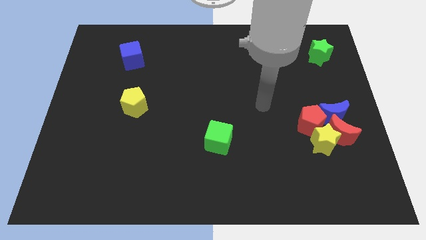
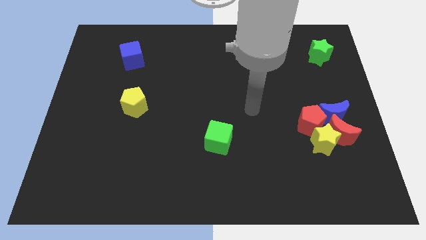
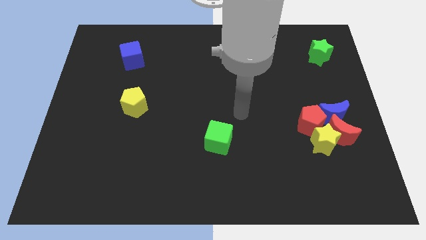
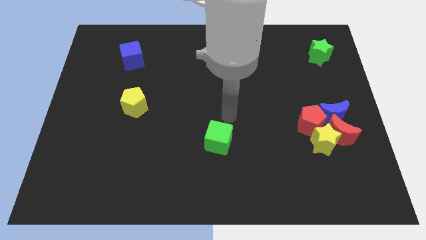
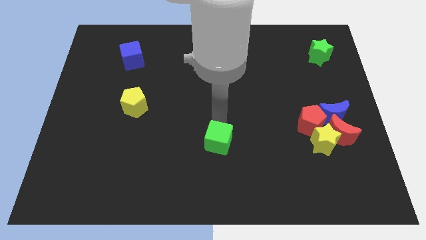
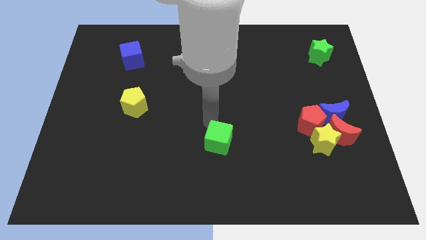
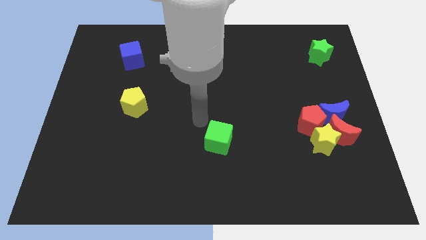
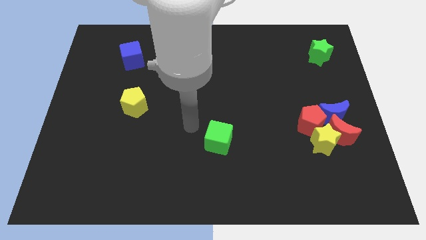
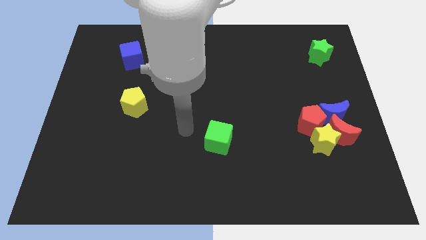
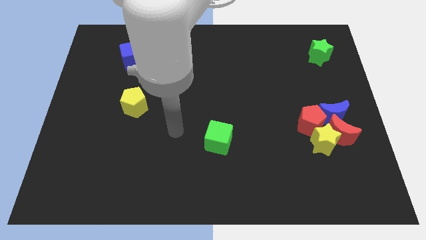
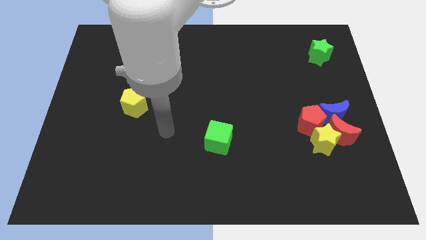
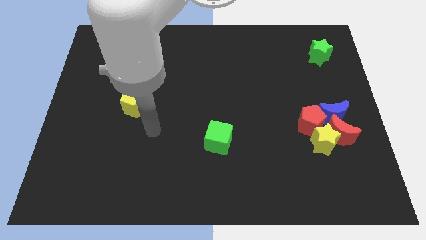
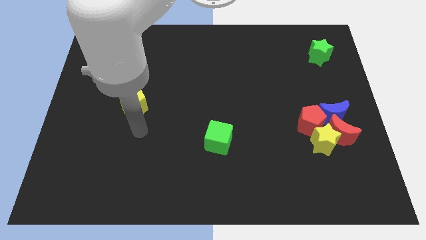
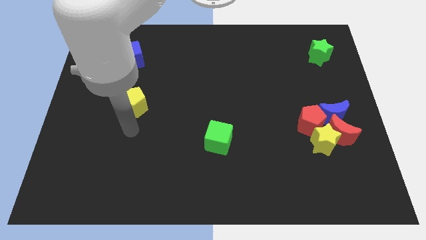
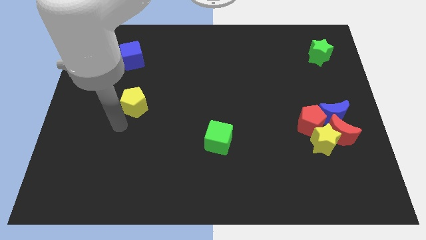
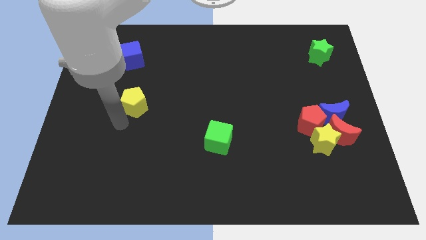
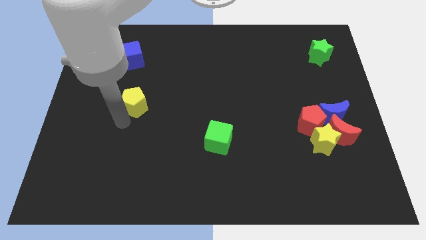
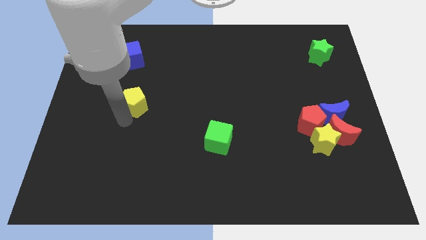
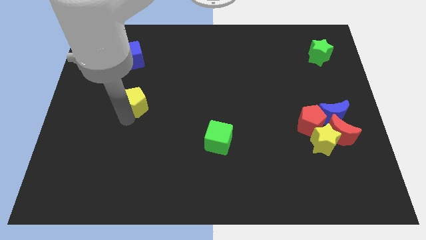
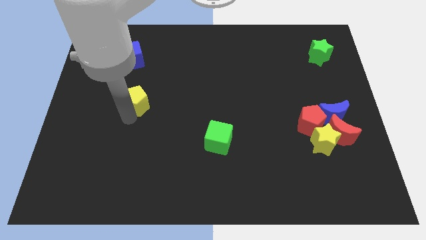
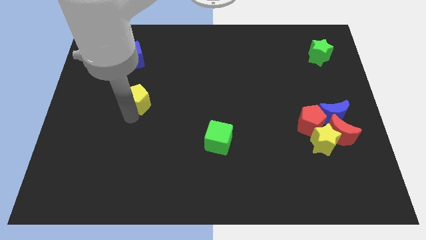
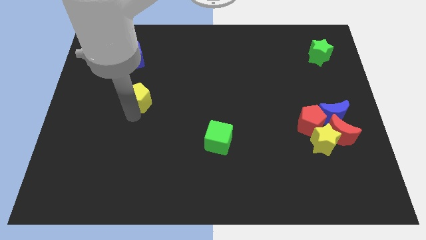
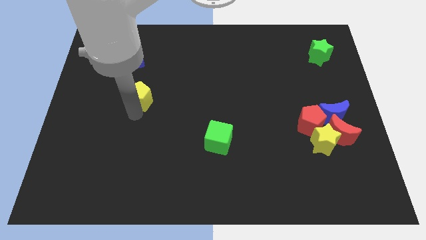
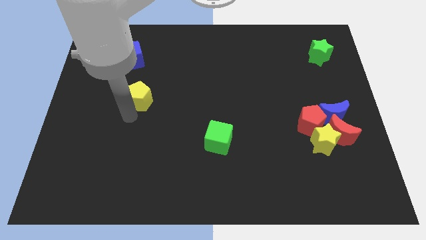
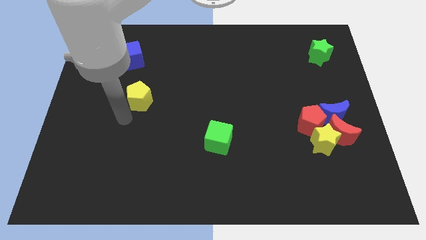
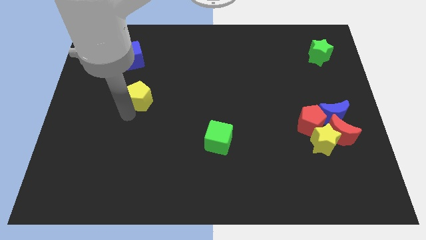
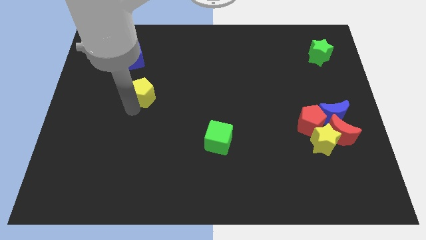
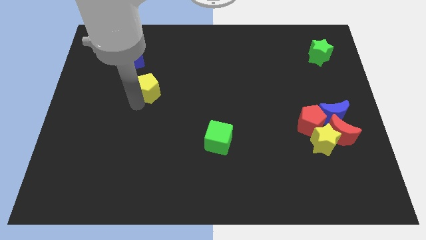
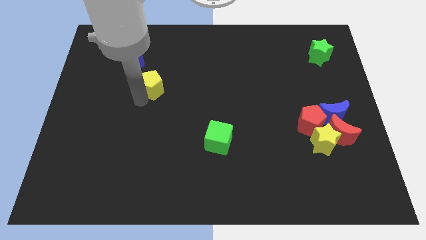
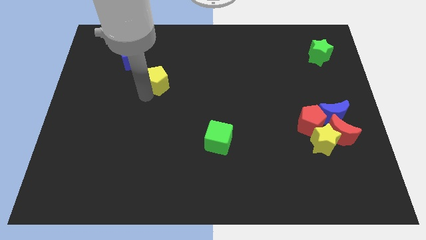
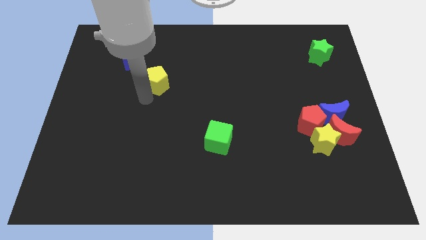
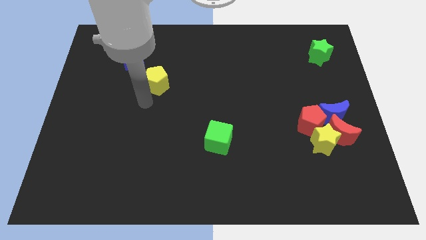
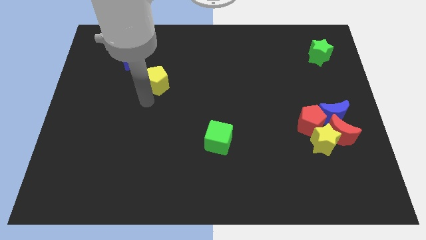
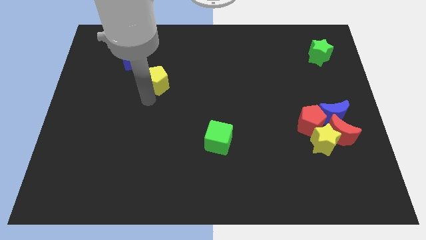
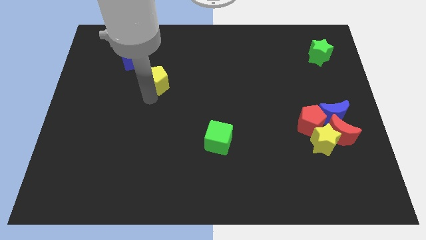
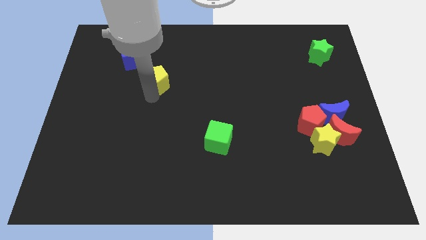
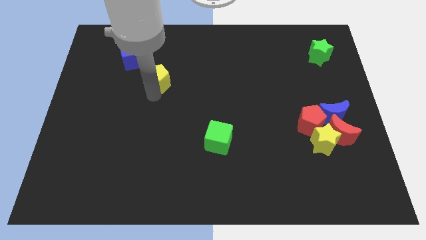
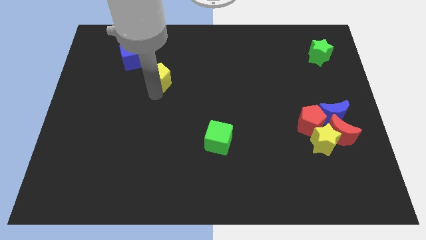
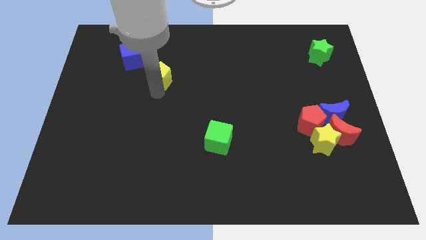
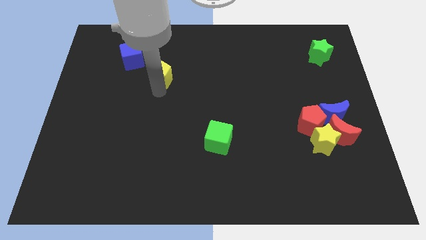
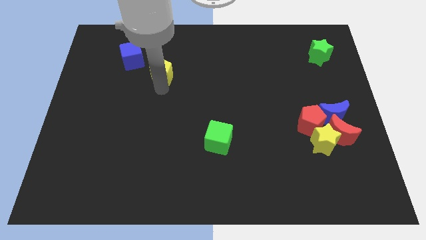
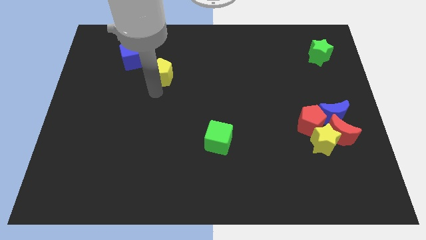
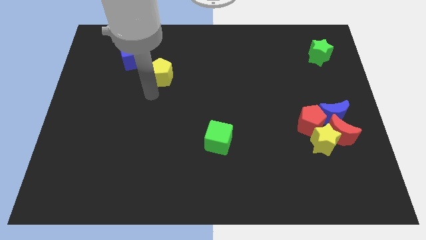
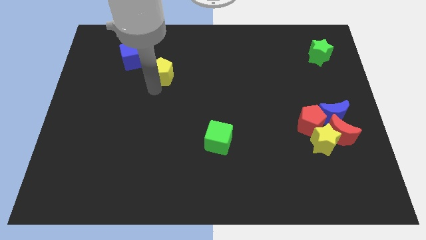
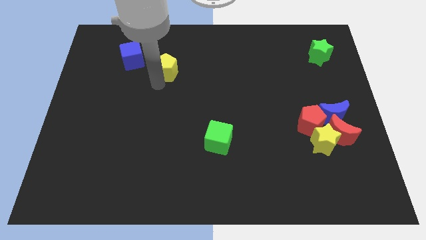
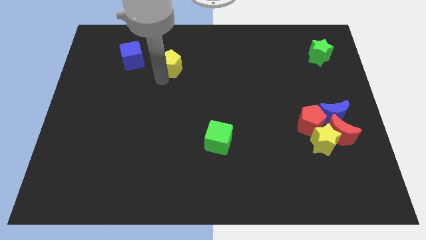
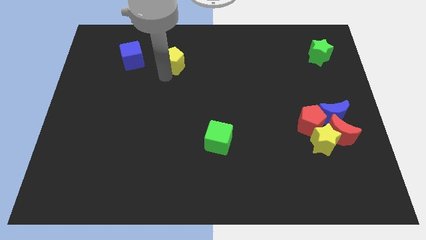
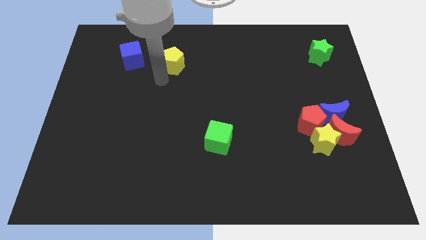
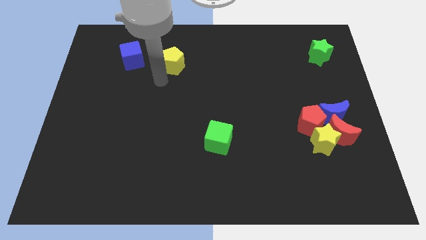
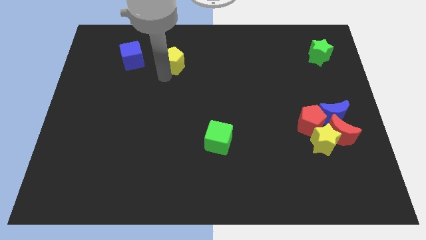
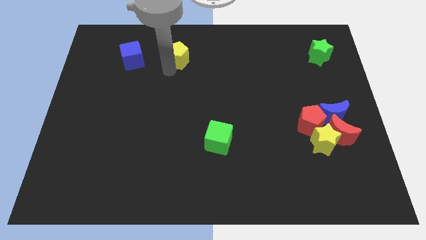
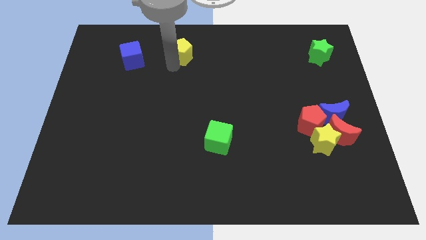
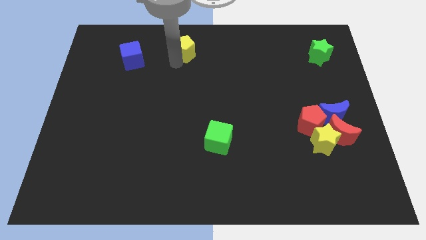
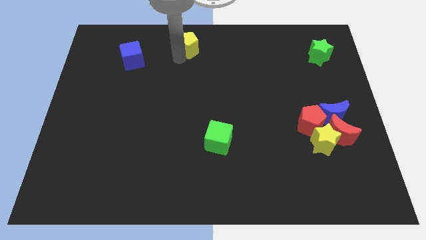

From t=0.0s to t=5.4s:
push the yellow pentagon to the top side
